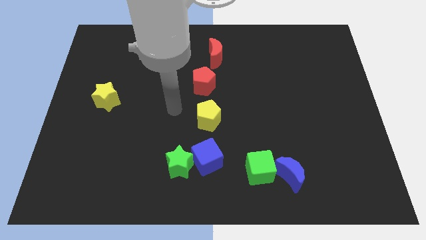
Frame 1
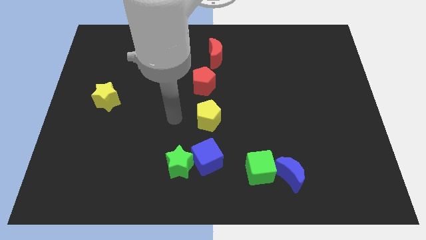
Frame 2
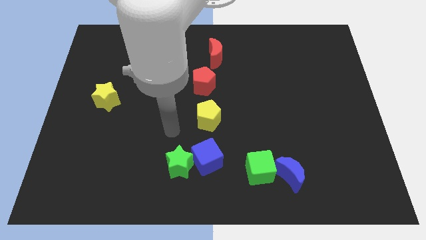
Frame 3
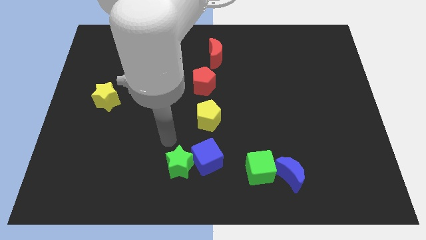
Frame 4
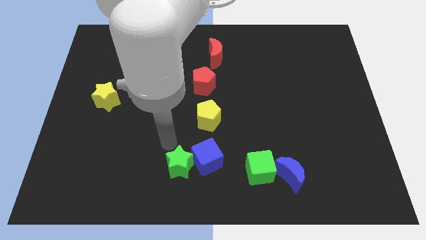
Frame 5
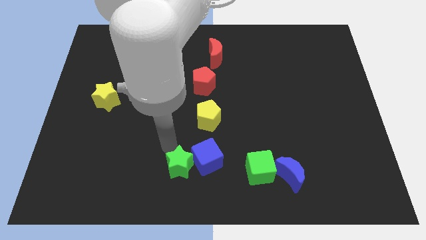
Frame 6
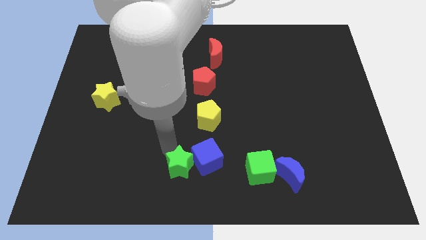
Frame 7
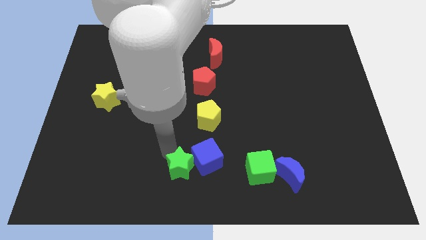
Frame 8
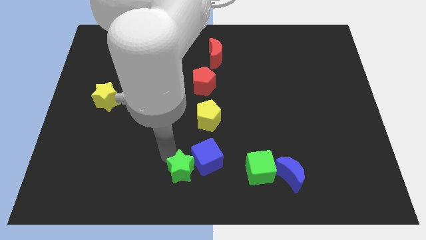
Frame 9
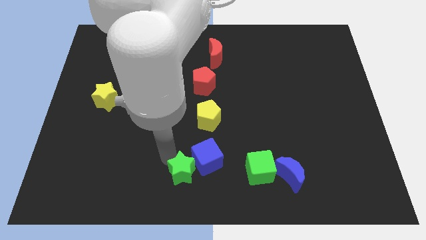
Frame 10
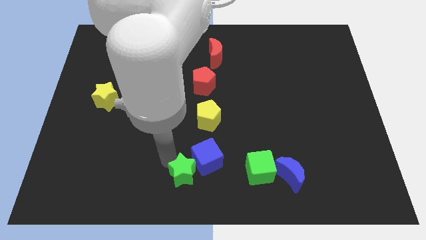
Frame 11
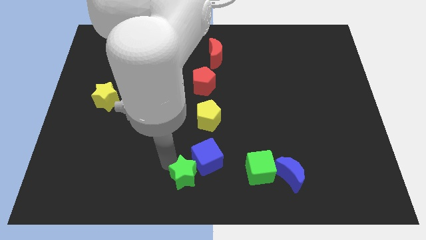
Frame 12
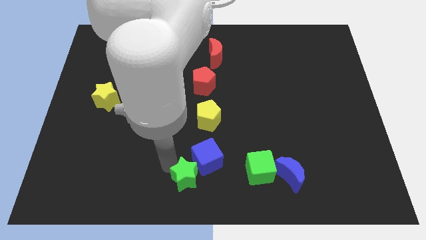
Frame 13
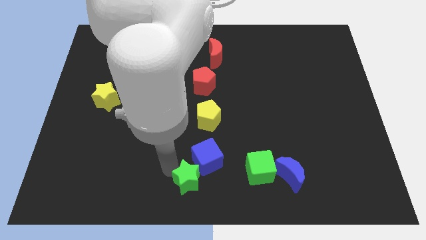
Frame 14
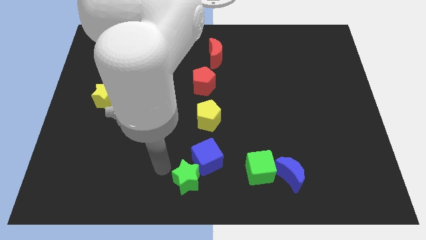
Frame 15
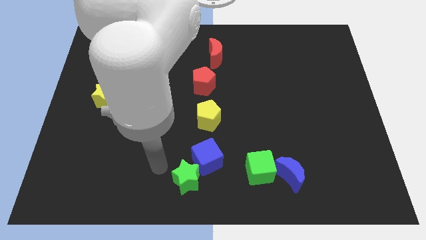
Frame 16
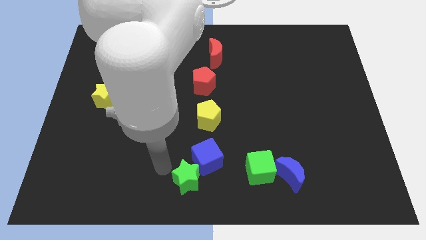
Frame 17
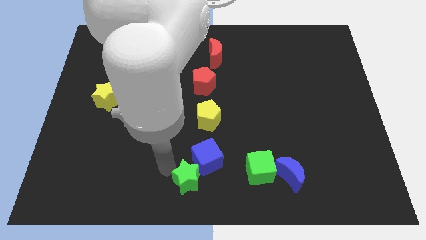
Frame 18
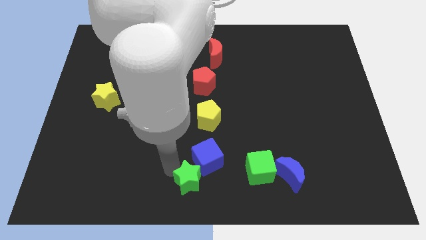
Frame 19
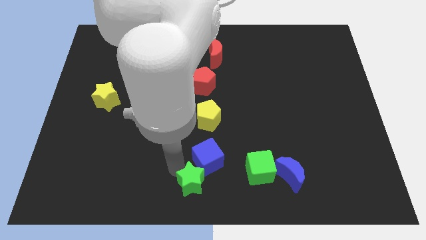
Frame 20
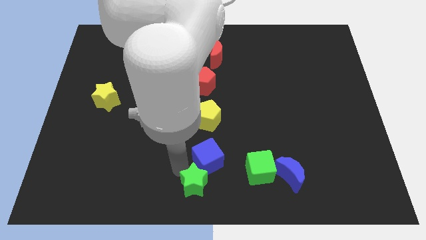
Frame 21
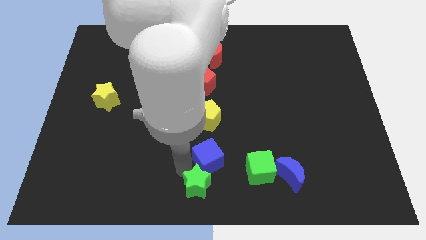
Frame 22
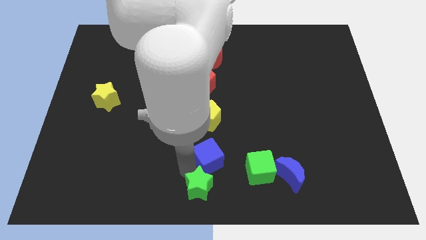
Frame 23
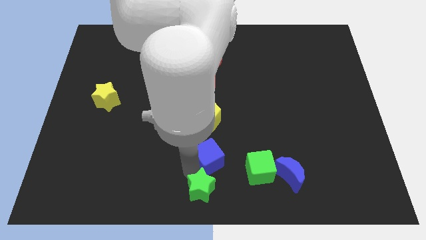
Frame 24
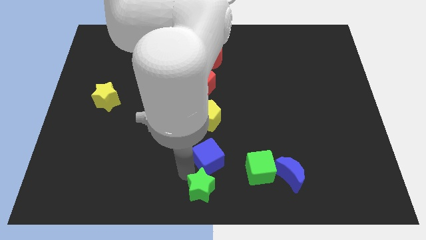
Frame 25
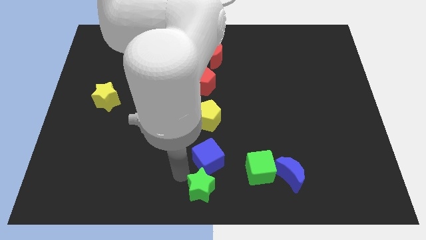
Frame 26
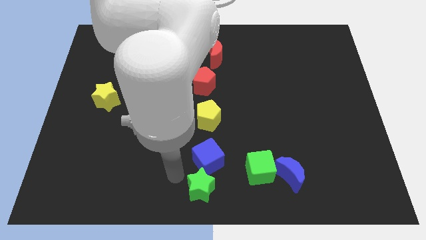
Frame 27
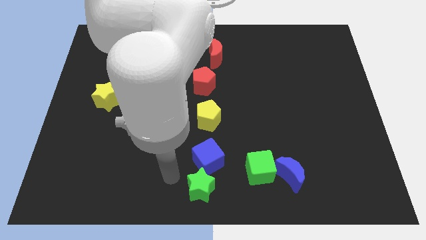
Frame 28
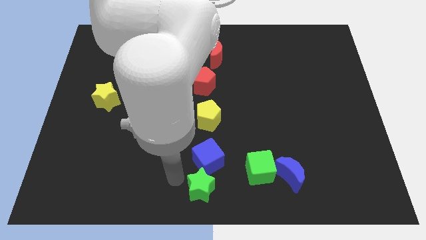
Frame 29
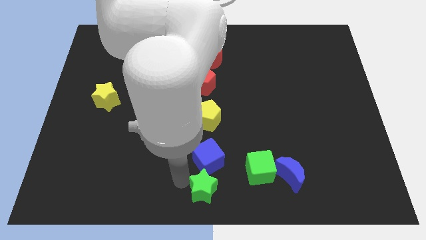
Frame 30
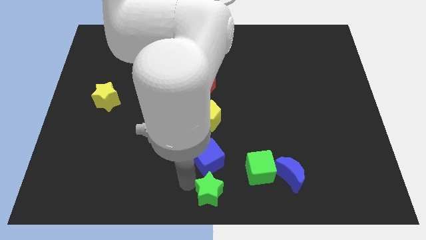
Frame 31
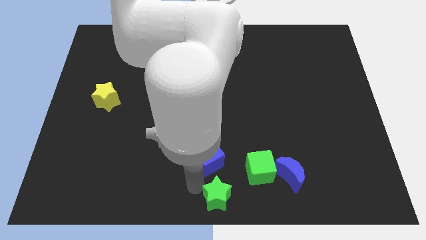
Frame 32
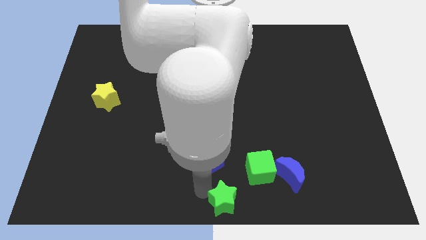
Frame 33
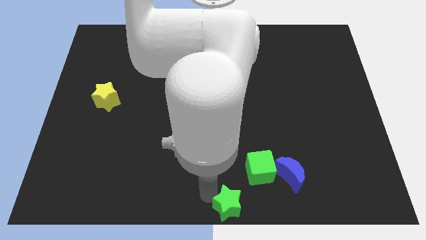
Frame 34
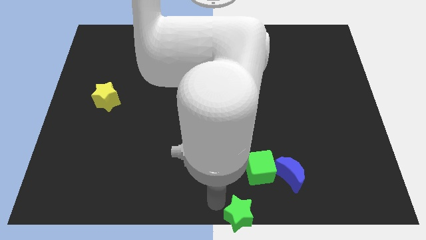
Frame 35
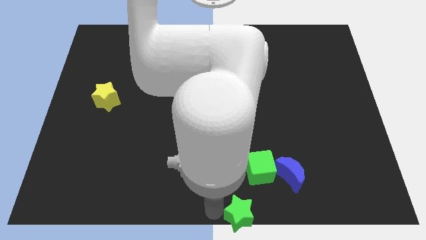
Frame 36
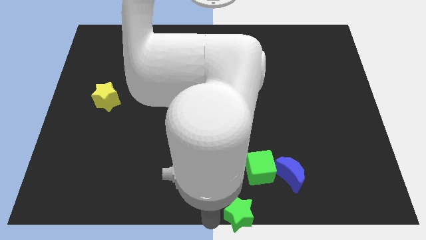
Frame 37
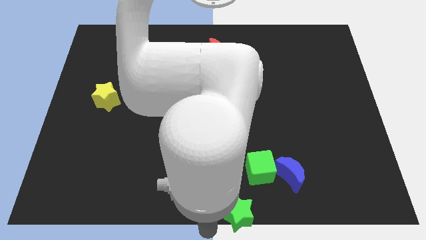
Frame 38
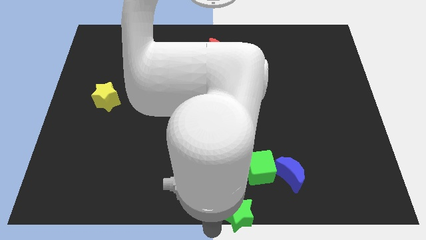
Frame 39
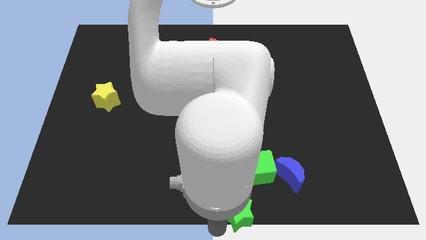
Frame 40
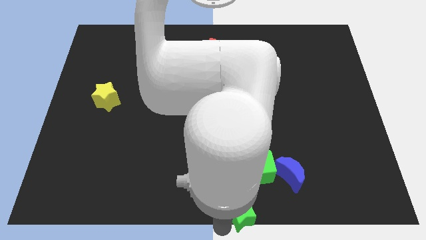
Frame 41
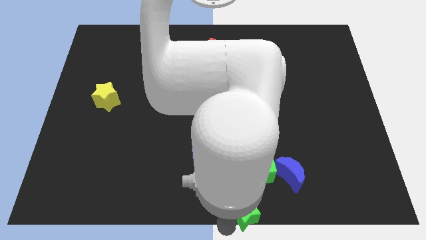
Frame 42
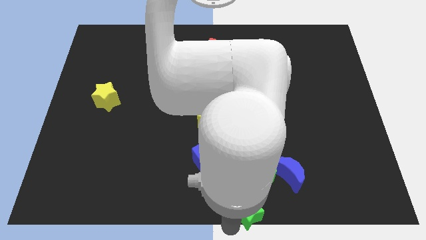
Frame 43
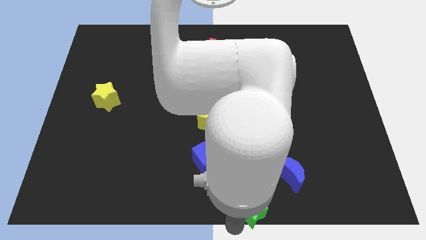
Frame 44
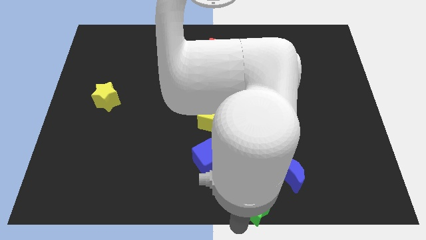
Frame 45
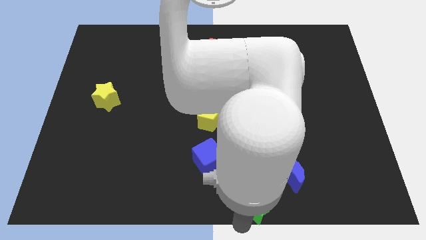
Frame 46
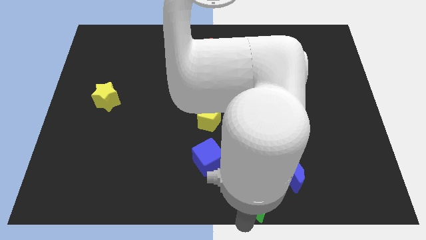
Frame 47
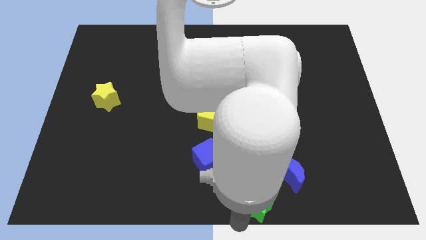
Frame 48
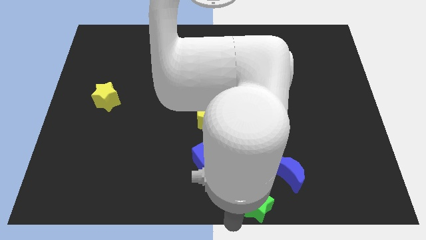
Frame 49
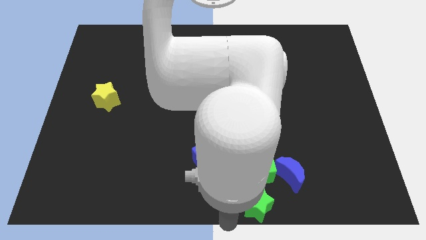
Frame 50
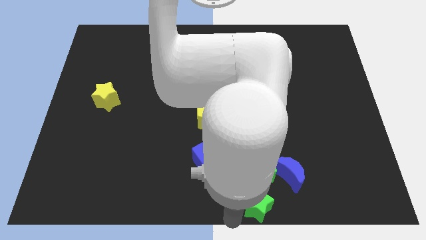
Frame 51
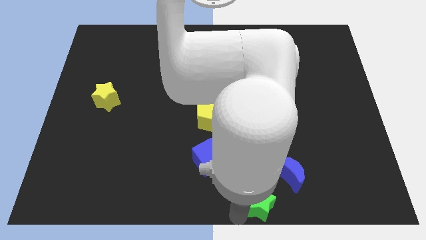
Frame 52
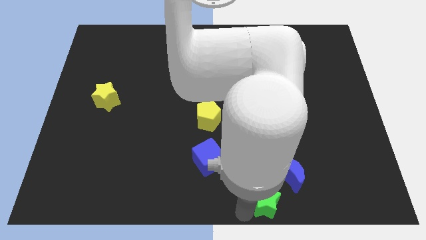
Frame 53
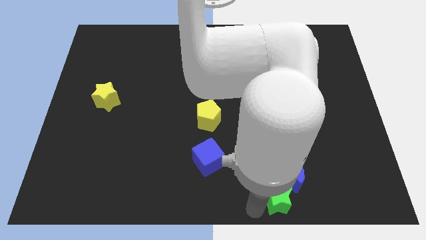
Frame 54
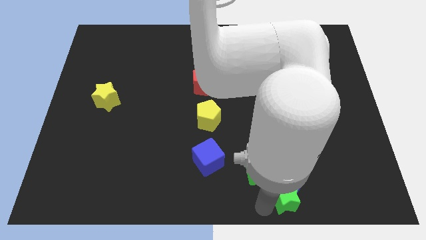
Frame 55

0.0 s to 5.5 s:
slide the green star next to the blue moon

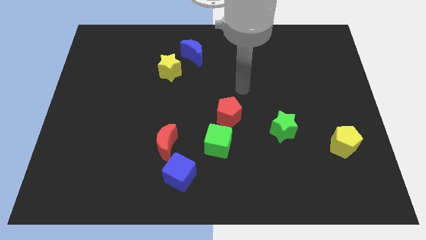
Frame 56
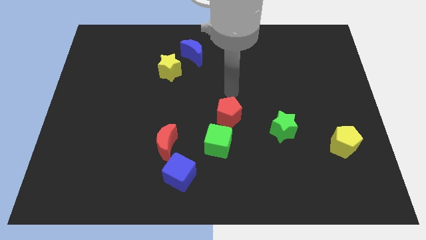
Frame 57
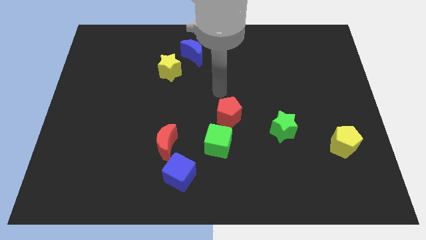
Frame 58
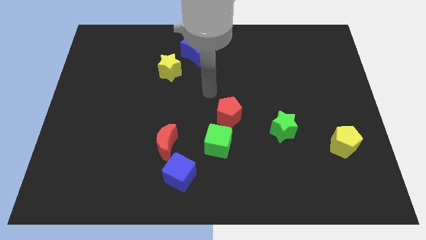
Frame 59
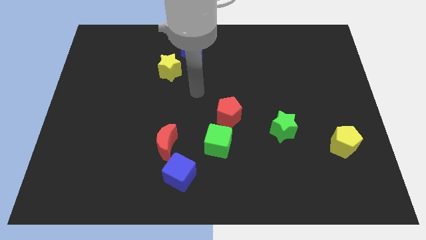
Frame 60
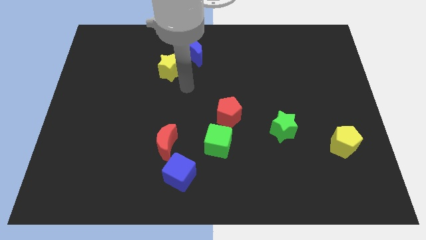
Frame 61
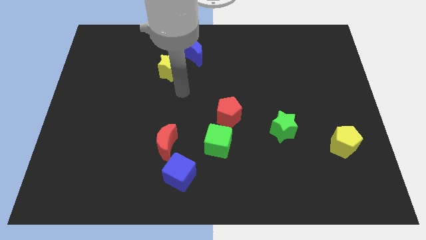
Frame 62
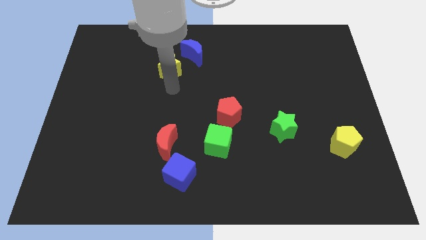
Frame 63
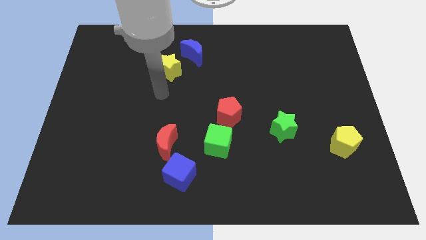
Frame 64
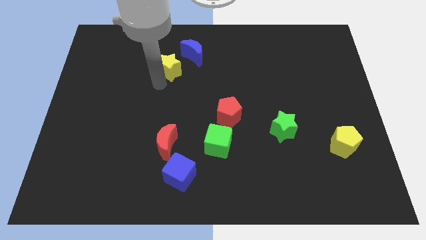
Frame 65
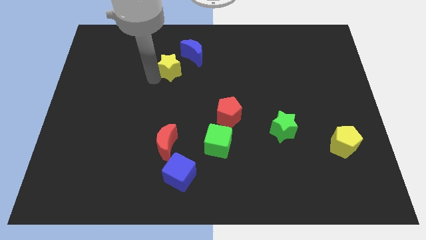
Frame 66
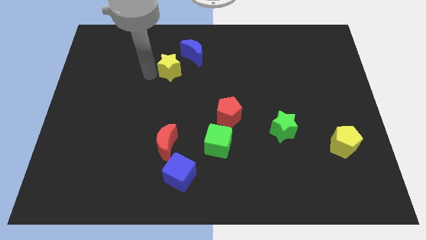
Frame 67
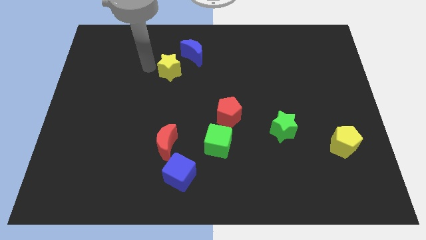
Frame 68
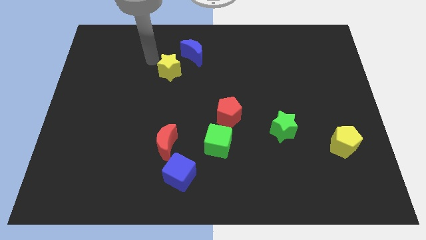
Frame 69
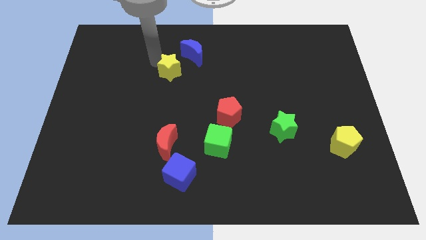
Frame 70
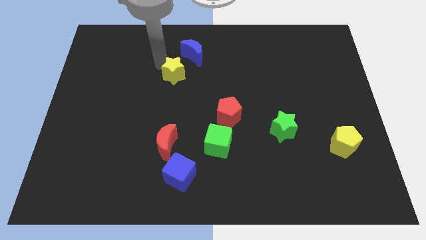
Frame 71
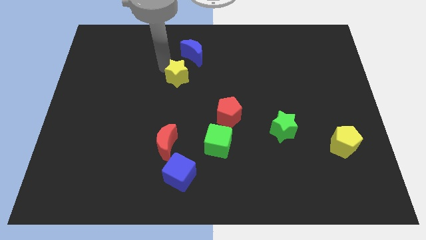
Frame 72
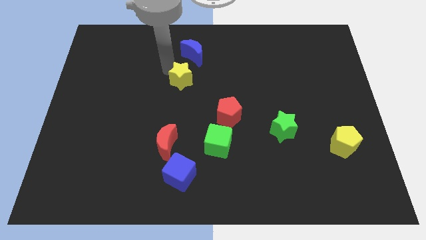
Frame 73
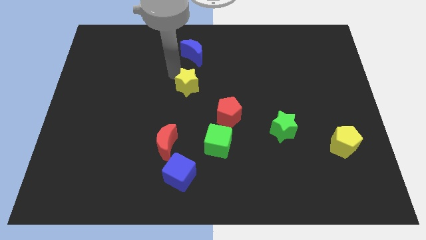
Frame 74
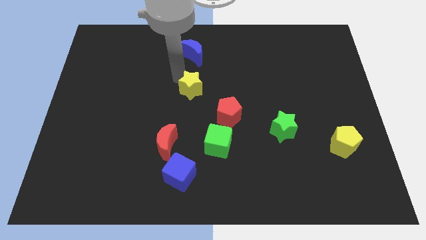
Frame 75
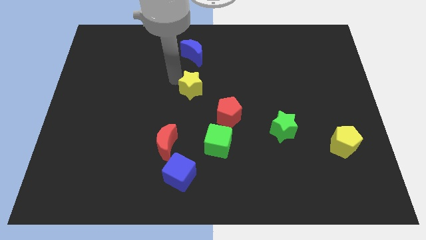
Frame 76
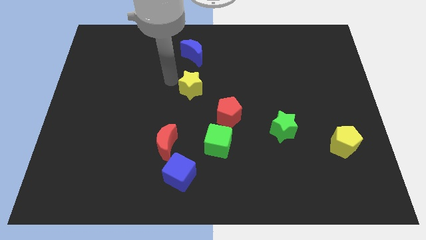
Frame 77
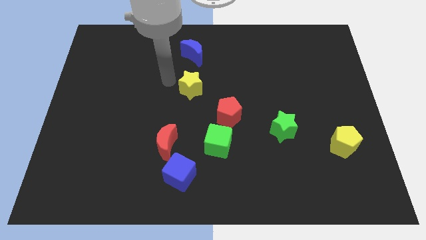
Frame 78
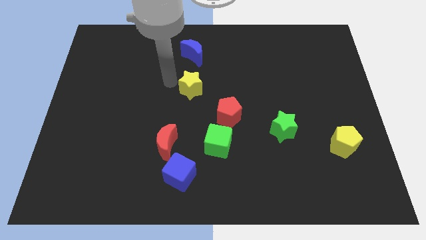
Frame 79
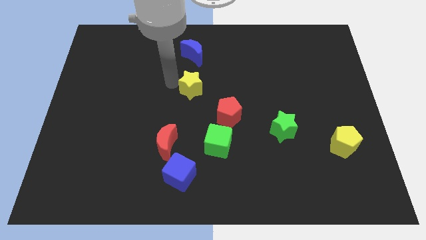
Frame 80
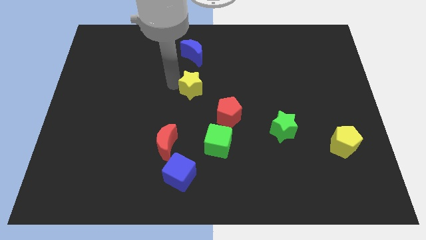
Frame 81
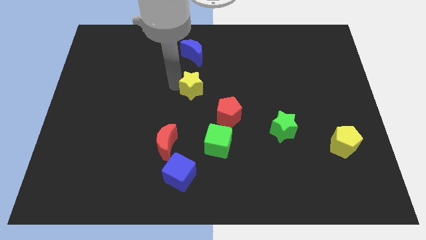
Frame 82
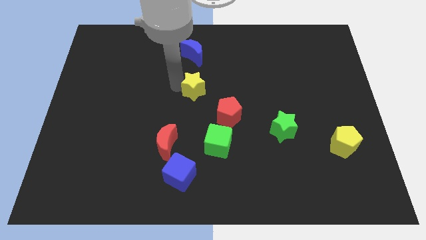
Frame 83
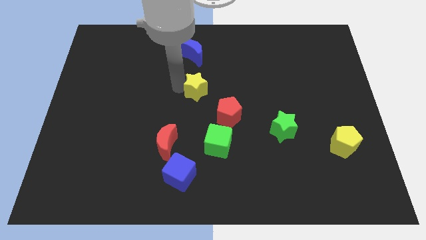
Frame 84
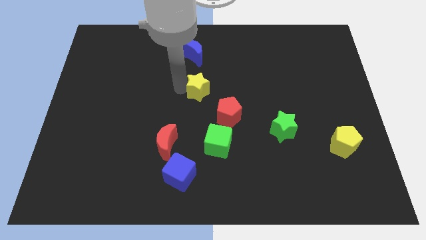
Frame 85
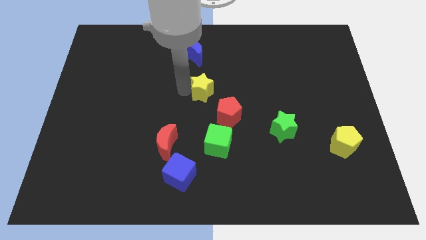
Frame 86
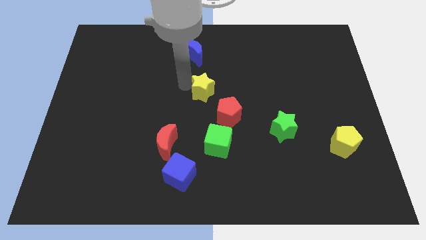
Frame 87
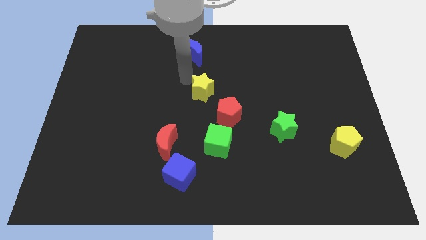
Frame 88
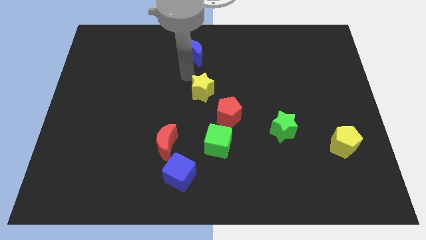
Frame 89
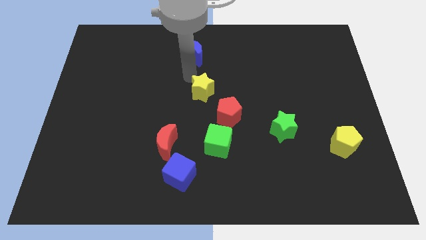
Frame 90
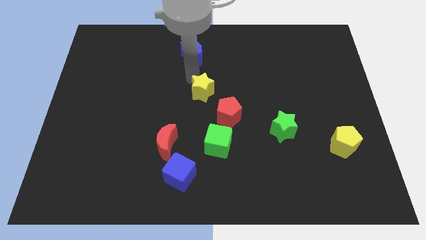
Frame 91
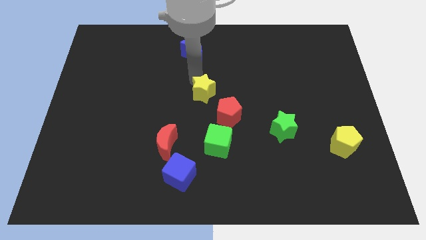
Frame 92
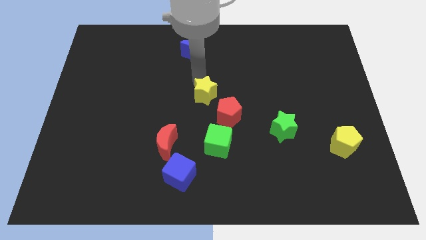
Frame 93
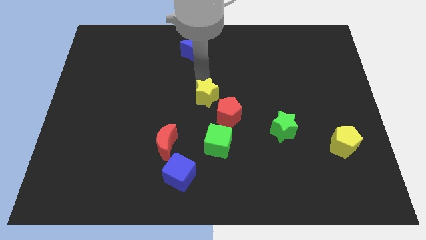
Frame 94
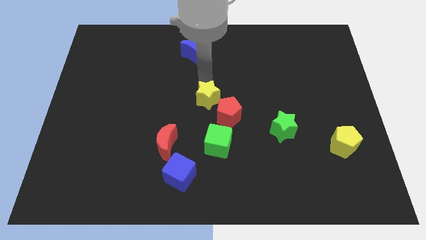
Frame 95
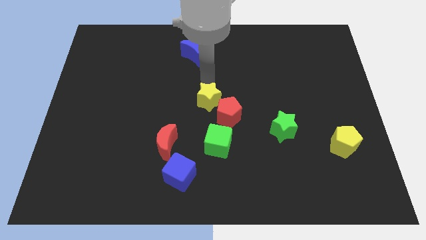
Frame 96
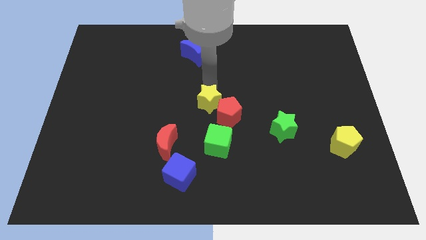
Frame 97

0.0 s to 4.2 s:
push the yellow star towards the red pentagon
